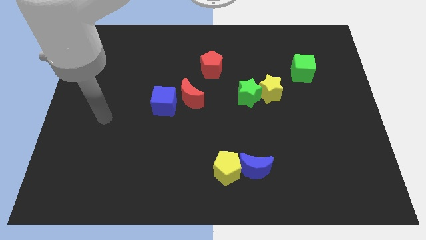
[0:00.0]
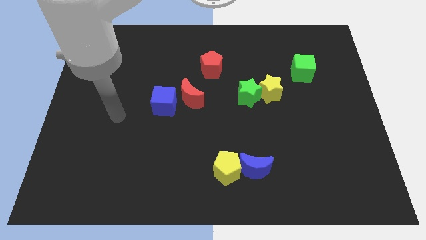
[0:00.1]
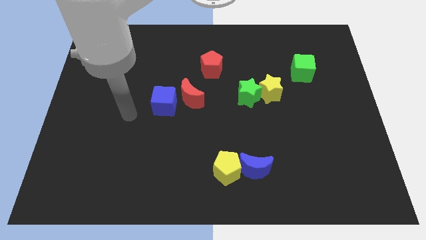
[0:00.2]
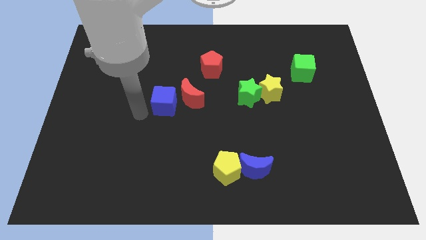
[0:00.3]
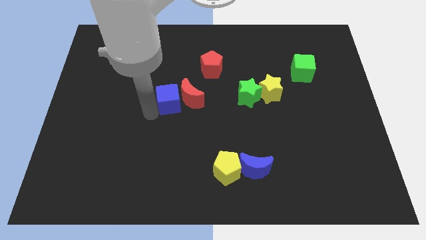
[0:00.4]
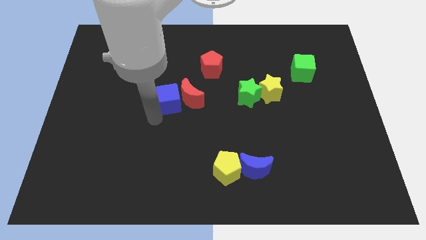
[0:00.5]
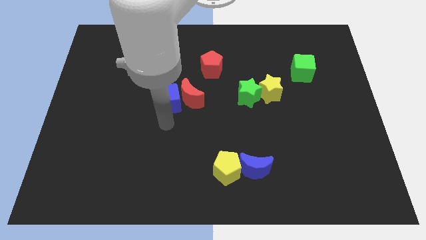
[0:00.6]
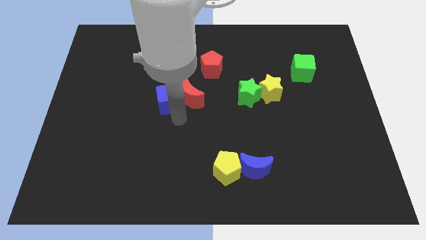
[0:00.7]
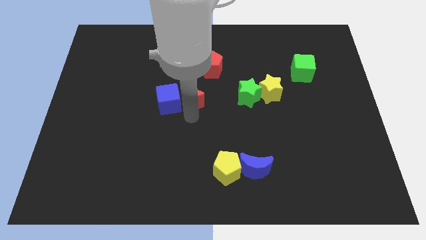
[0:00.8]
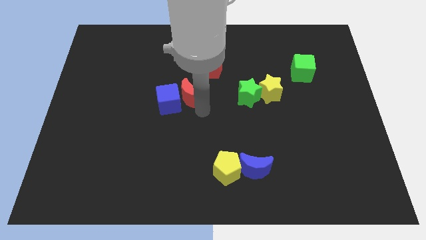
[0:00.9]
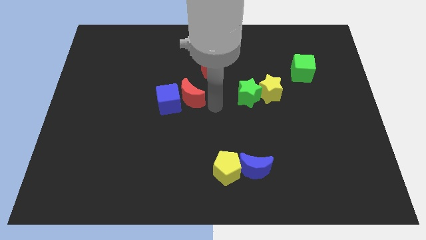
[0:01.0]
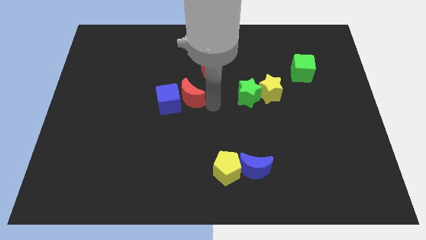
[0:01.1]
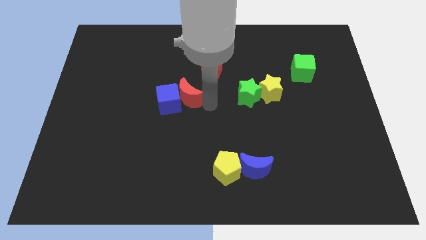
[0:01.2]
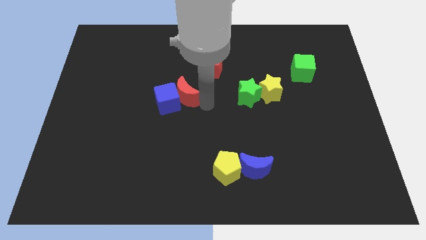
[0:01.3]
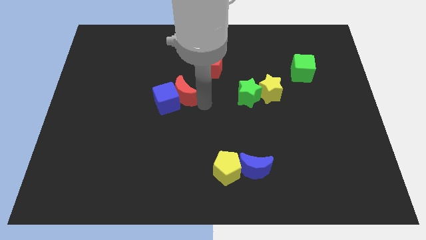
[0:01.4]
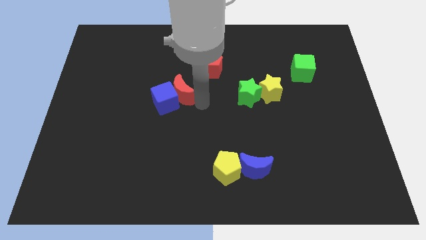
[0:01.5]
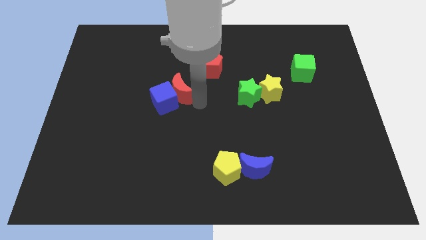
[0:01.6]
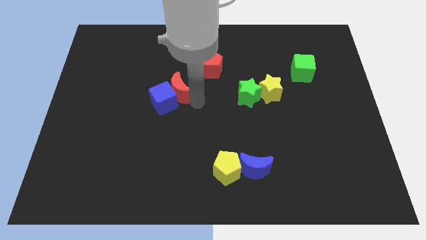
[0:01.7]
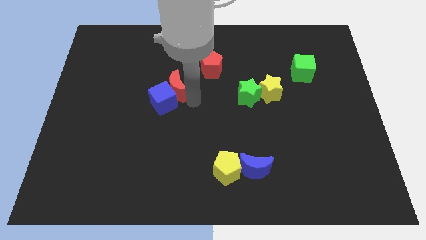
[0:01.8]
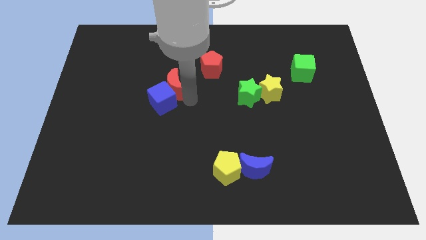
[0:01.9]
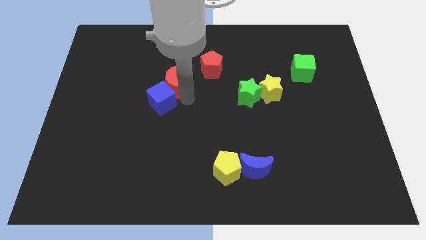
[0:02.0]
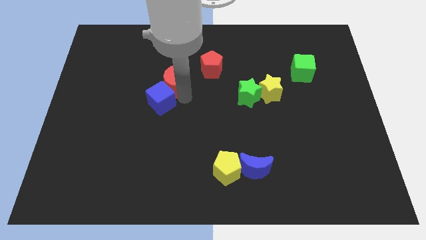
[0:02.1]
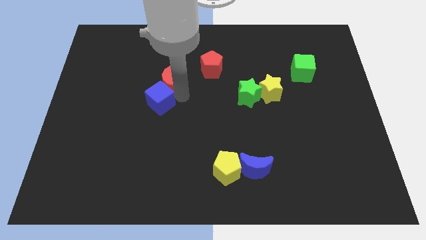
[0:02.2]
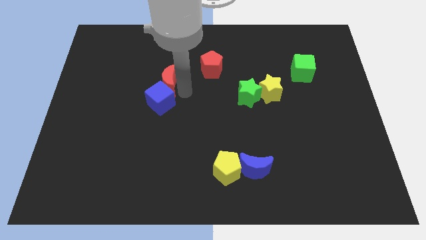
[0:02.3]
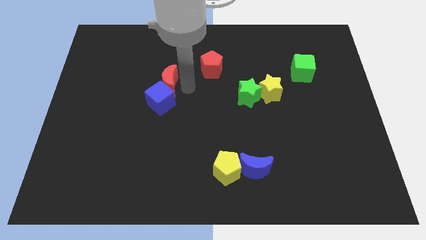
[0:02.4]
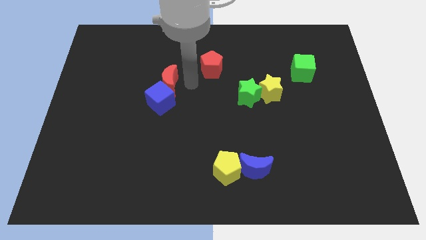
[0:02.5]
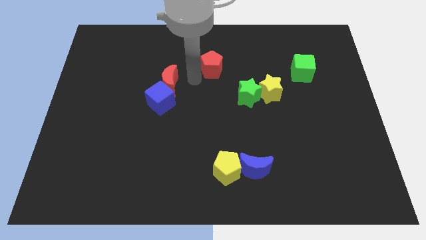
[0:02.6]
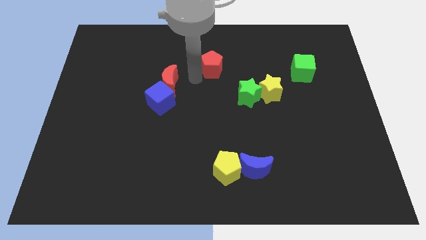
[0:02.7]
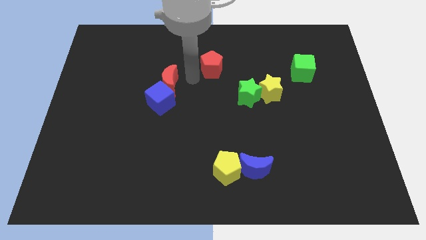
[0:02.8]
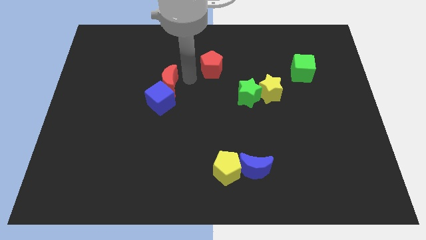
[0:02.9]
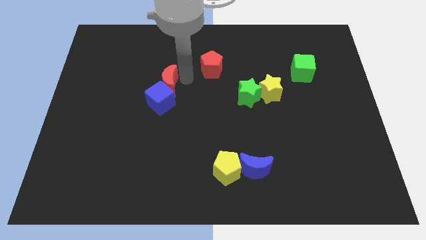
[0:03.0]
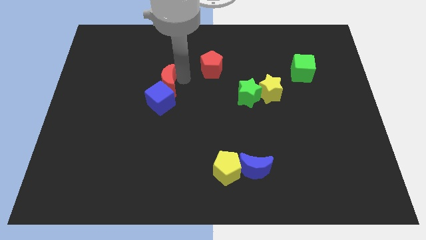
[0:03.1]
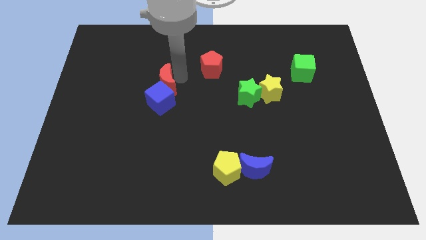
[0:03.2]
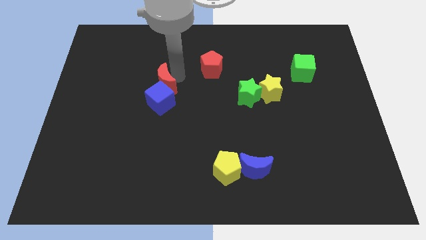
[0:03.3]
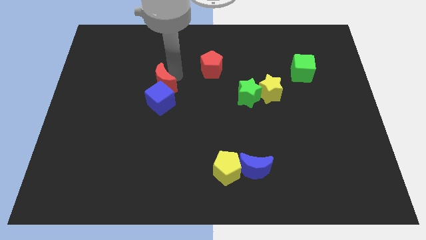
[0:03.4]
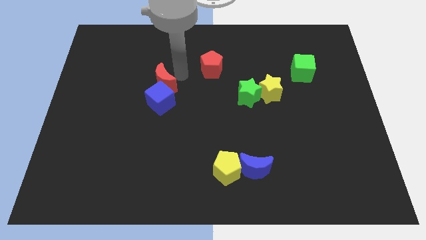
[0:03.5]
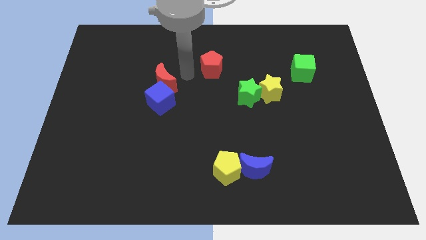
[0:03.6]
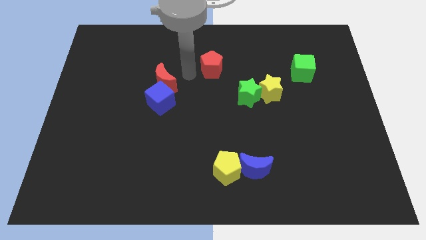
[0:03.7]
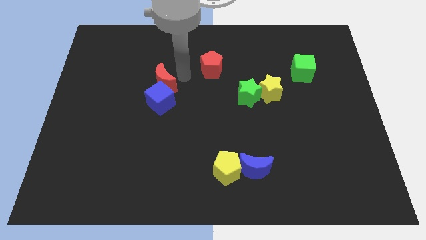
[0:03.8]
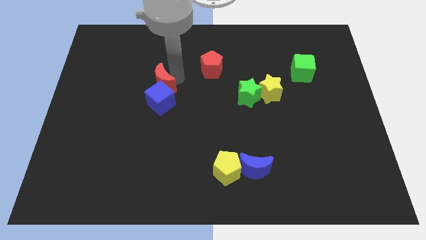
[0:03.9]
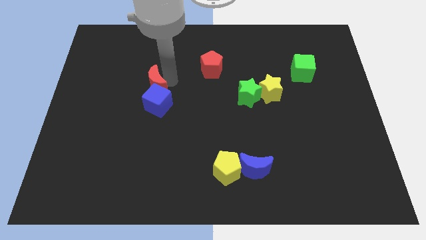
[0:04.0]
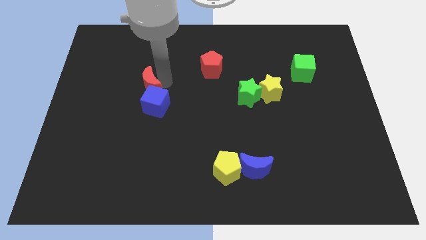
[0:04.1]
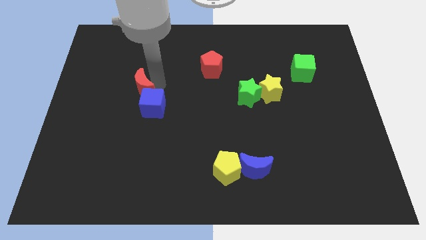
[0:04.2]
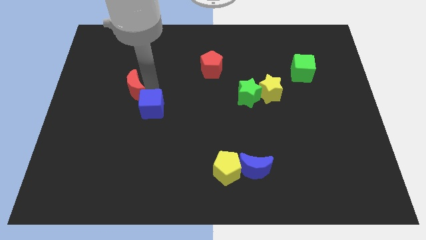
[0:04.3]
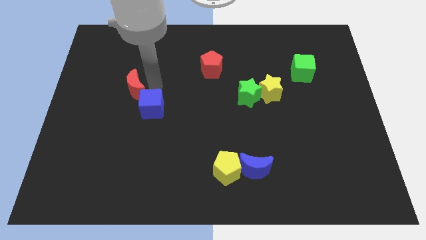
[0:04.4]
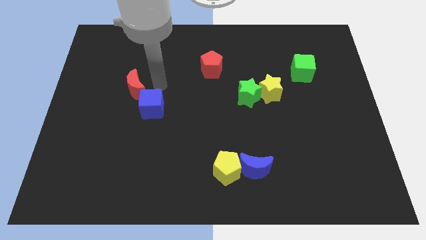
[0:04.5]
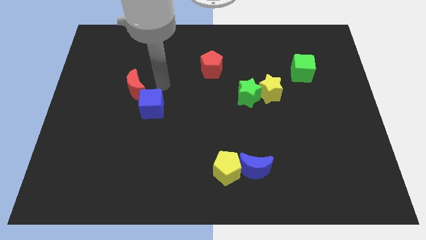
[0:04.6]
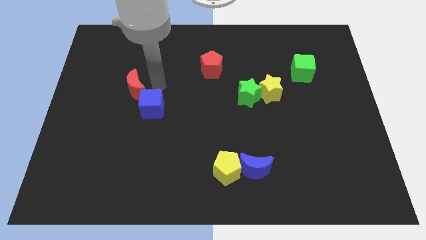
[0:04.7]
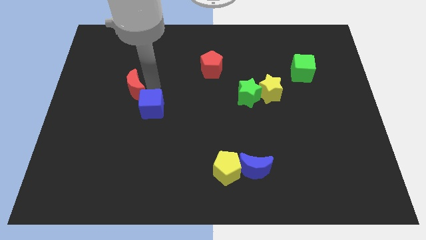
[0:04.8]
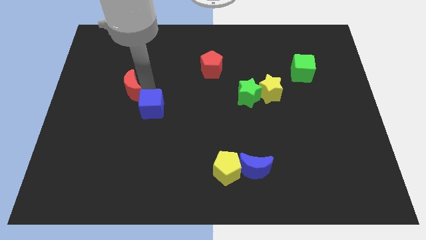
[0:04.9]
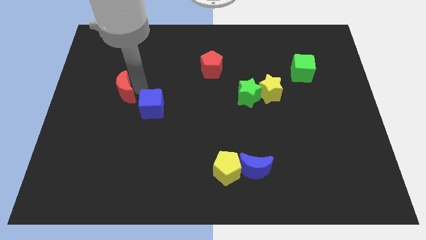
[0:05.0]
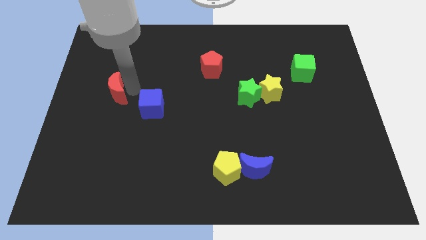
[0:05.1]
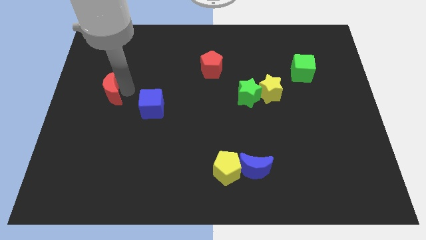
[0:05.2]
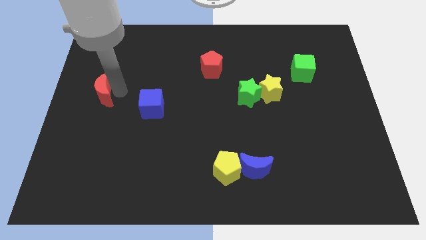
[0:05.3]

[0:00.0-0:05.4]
put the red moon to the left side of the board

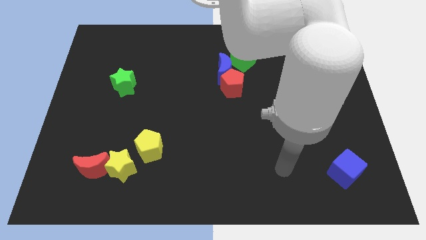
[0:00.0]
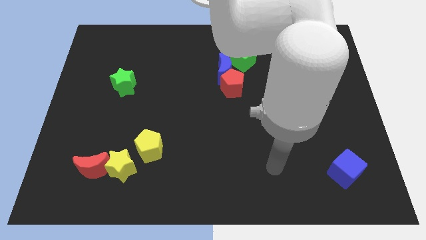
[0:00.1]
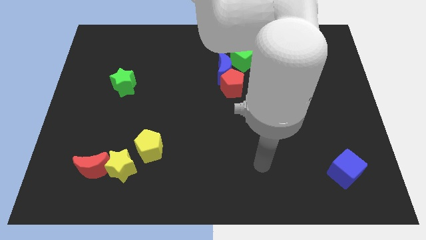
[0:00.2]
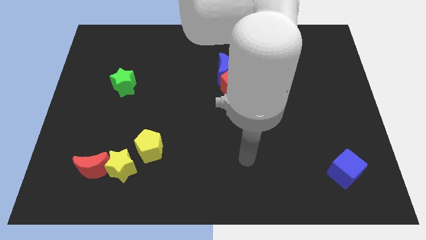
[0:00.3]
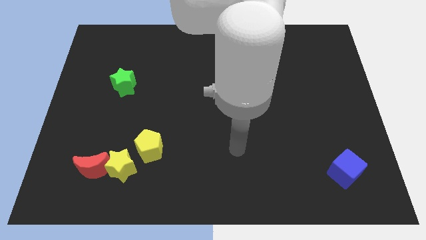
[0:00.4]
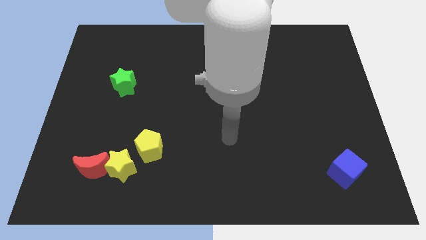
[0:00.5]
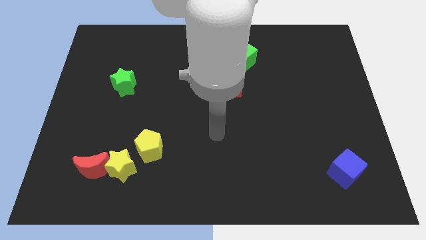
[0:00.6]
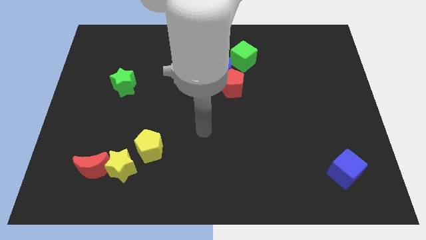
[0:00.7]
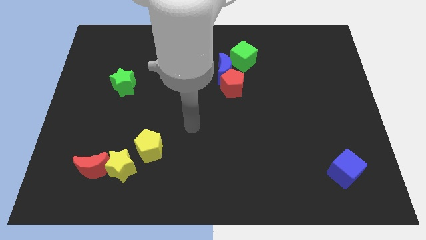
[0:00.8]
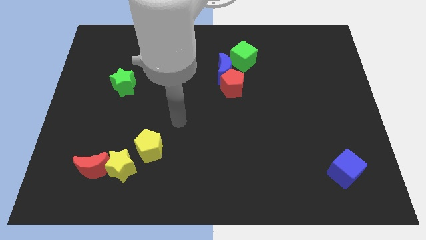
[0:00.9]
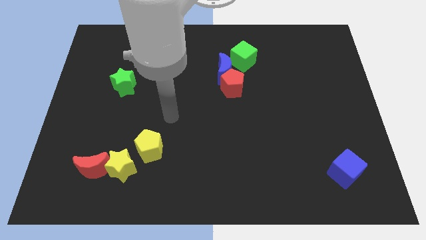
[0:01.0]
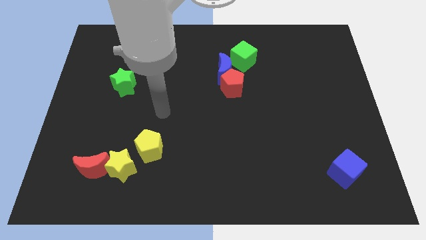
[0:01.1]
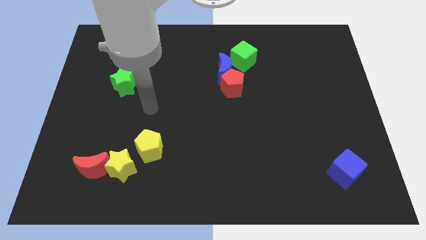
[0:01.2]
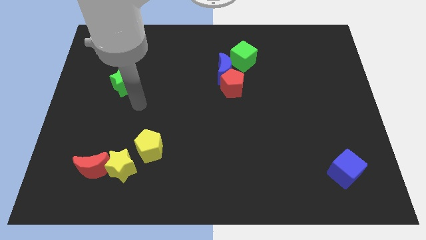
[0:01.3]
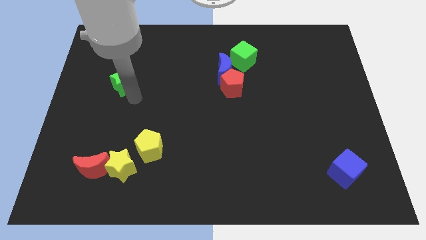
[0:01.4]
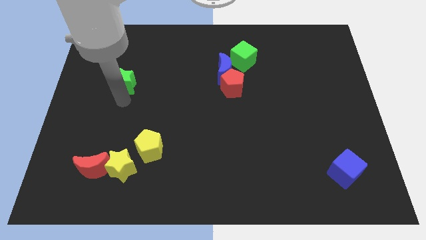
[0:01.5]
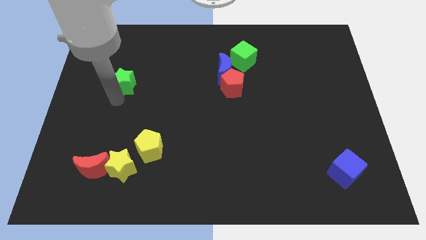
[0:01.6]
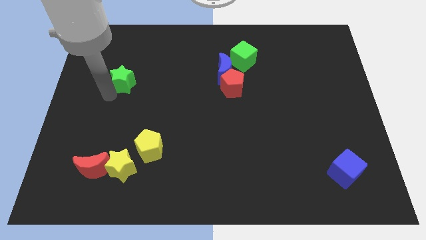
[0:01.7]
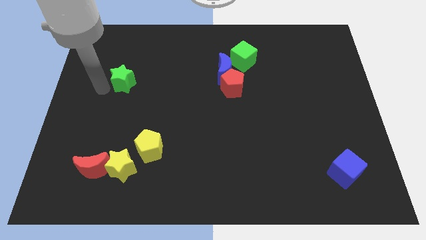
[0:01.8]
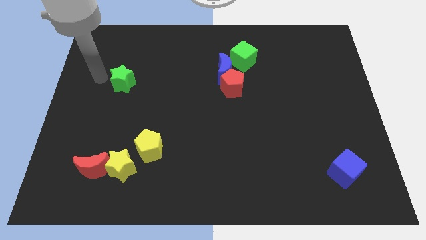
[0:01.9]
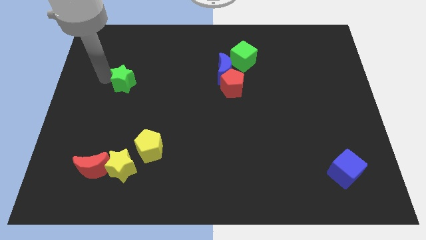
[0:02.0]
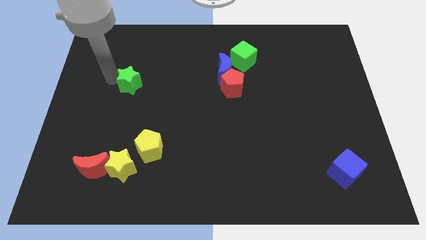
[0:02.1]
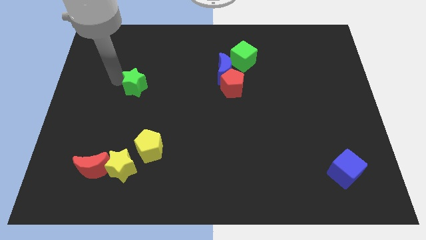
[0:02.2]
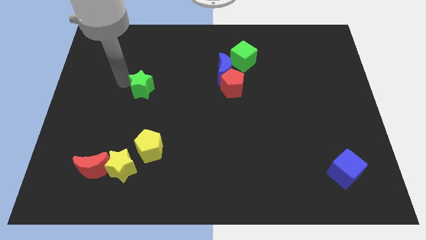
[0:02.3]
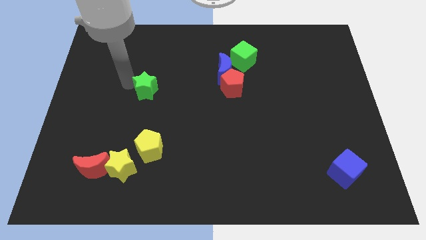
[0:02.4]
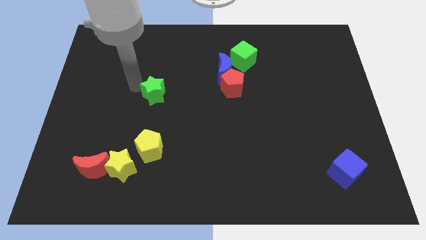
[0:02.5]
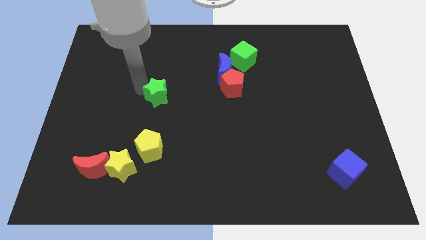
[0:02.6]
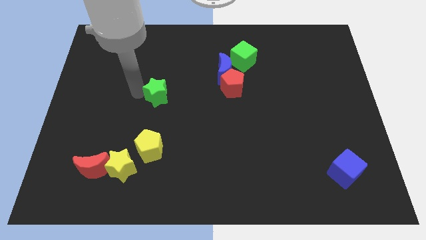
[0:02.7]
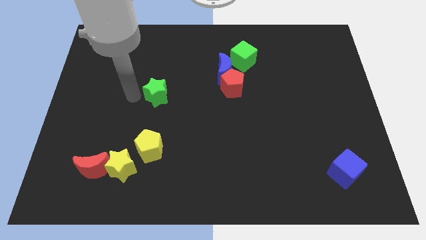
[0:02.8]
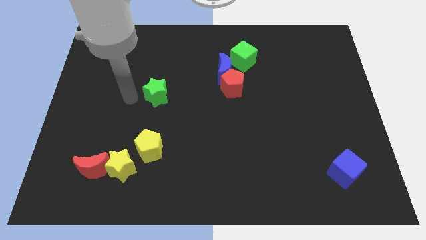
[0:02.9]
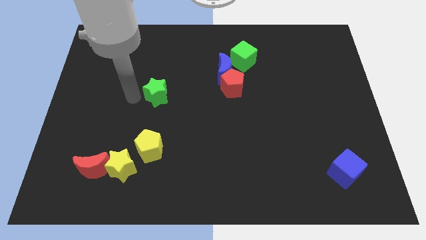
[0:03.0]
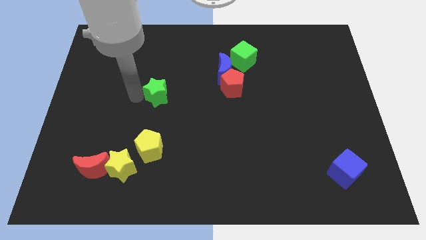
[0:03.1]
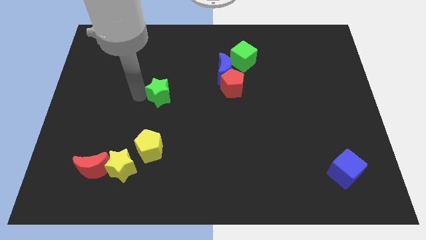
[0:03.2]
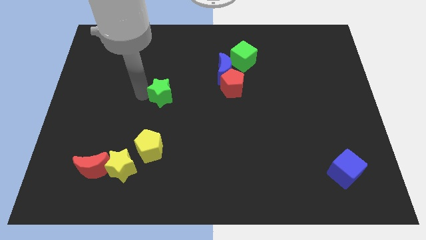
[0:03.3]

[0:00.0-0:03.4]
slide the green star to the middle of the board
